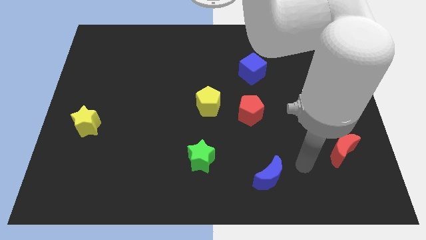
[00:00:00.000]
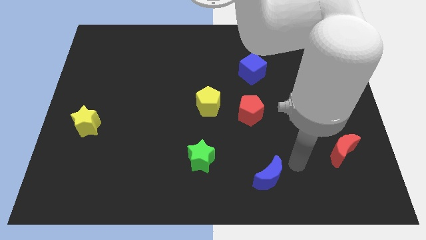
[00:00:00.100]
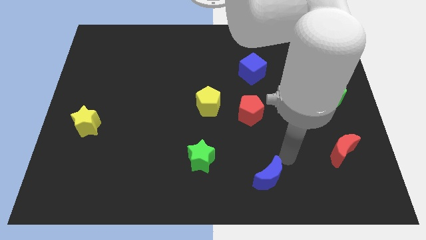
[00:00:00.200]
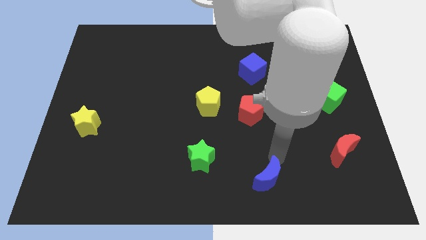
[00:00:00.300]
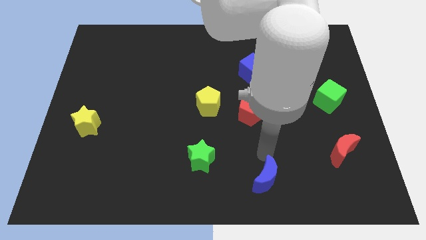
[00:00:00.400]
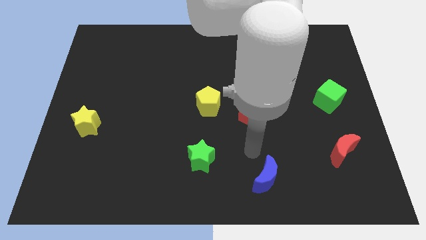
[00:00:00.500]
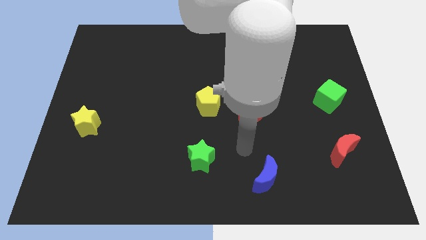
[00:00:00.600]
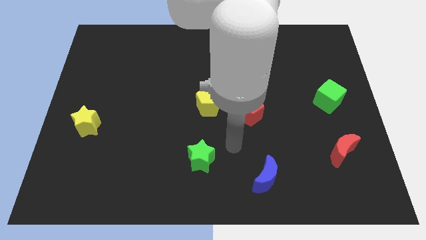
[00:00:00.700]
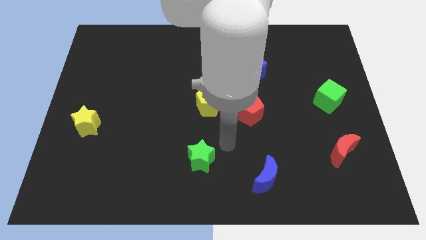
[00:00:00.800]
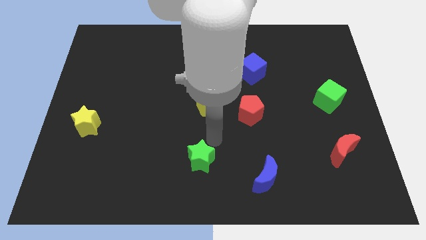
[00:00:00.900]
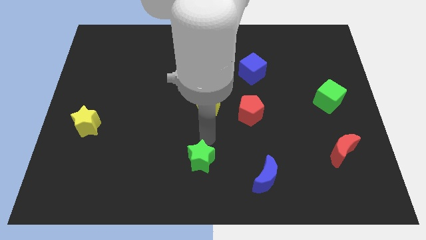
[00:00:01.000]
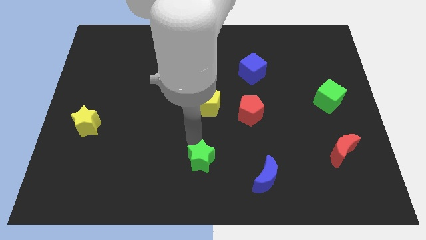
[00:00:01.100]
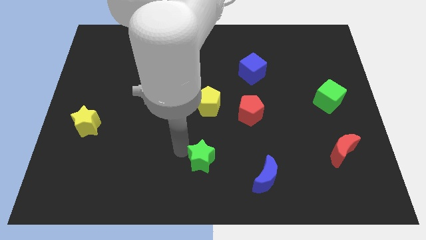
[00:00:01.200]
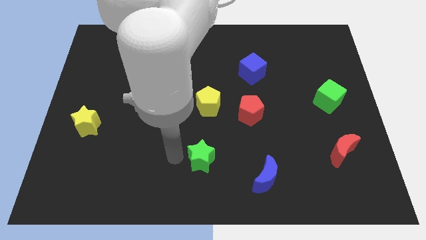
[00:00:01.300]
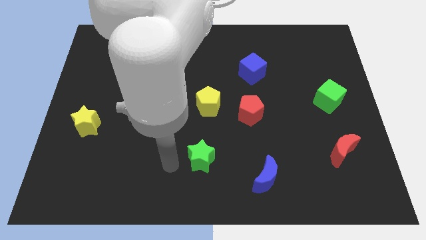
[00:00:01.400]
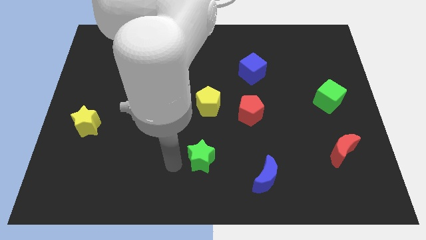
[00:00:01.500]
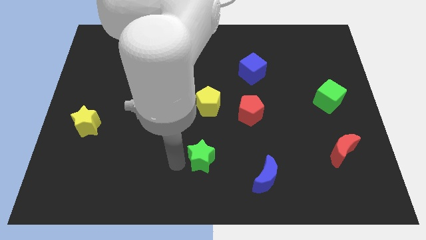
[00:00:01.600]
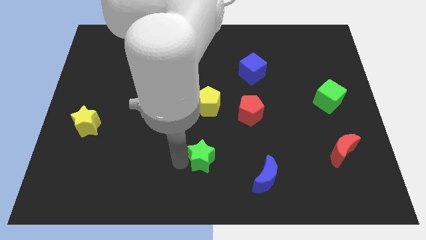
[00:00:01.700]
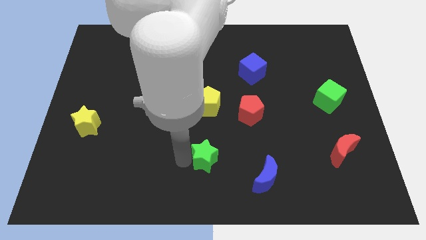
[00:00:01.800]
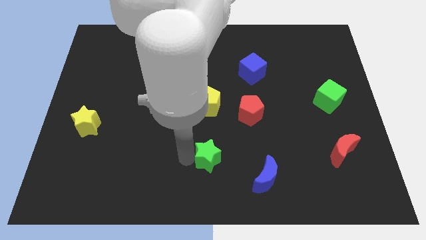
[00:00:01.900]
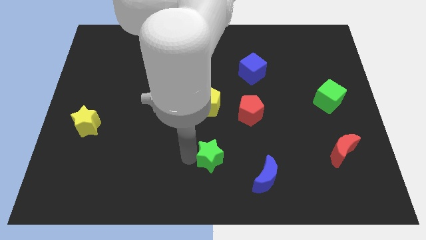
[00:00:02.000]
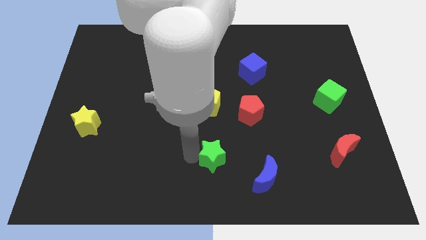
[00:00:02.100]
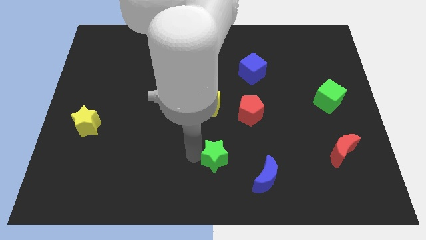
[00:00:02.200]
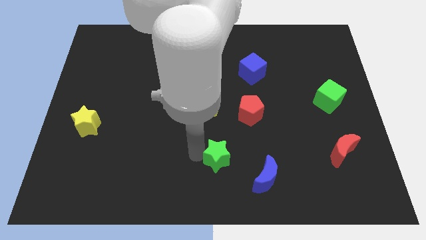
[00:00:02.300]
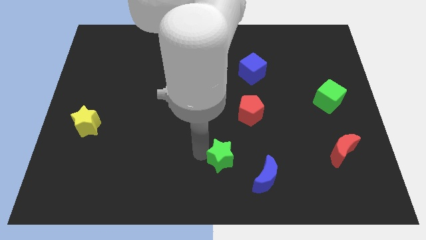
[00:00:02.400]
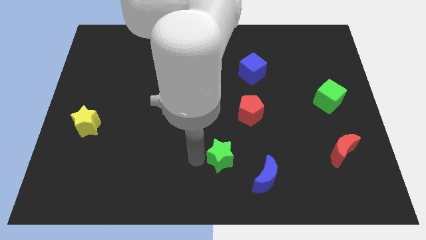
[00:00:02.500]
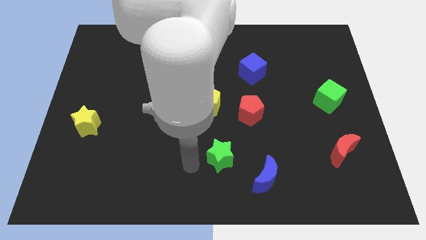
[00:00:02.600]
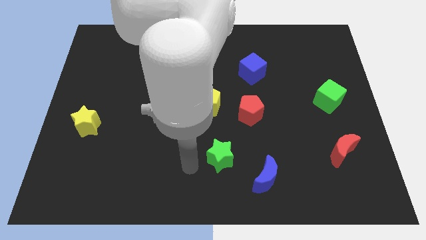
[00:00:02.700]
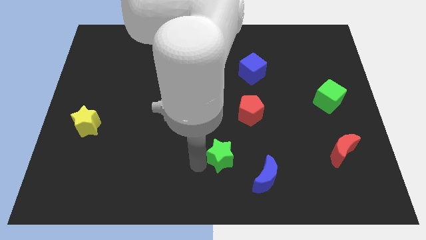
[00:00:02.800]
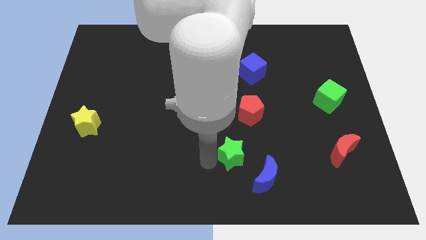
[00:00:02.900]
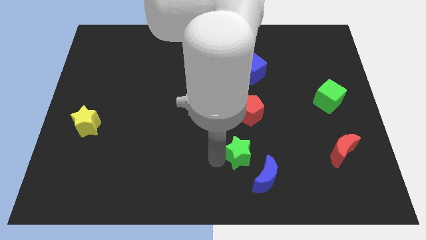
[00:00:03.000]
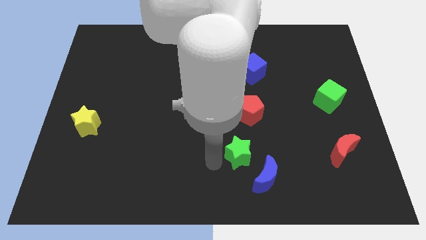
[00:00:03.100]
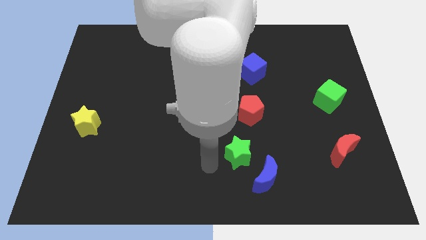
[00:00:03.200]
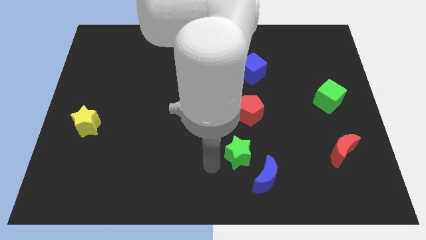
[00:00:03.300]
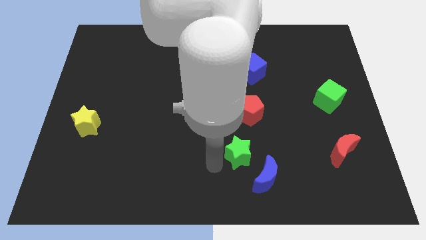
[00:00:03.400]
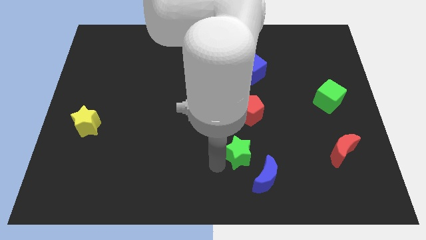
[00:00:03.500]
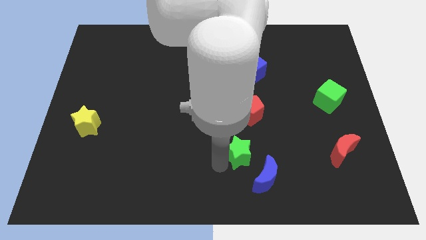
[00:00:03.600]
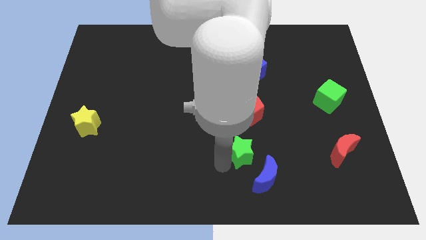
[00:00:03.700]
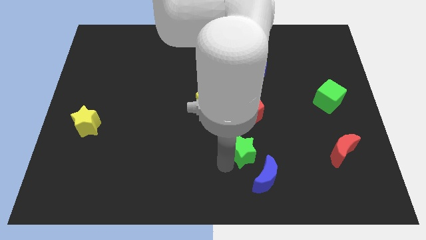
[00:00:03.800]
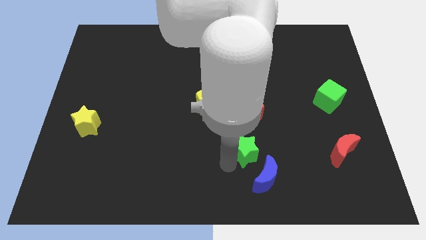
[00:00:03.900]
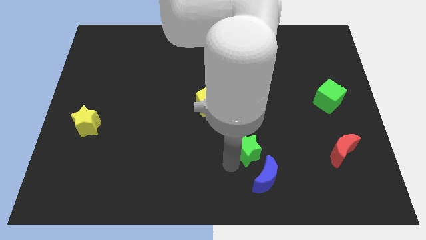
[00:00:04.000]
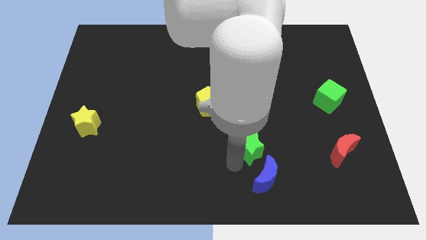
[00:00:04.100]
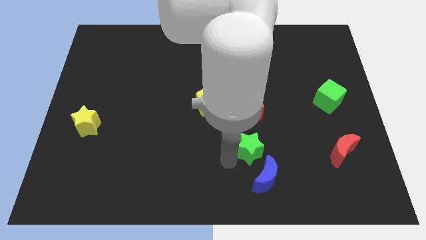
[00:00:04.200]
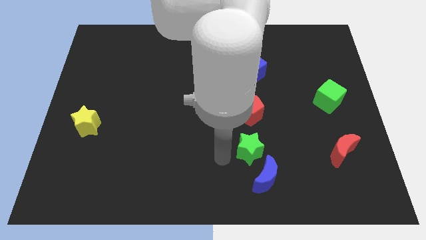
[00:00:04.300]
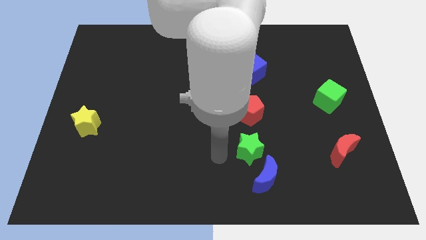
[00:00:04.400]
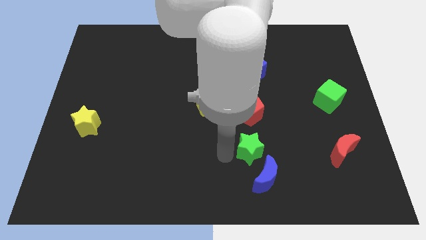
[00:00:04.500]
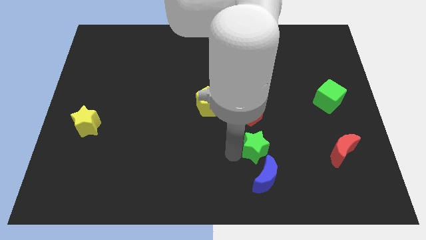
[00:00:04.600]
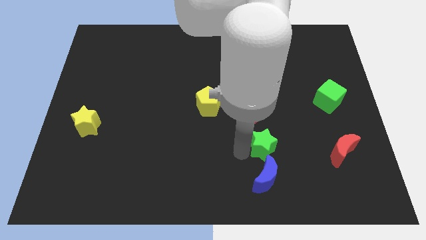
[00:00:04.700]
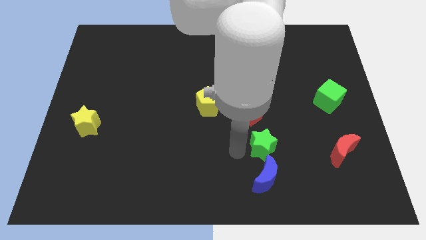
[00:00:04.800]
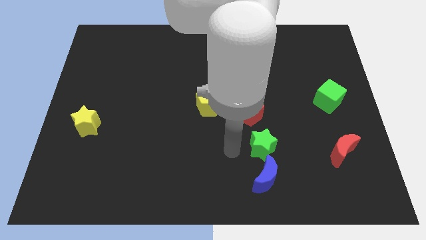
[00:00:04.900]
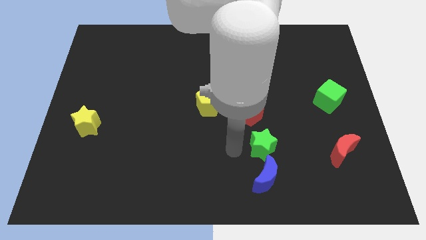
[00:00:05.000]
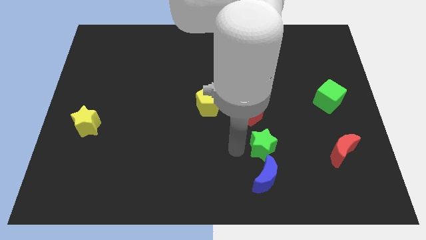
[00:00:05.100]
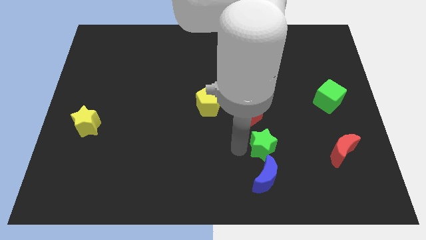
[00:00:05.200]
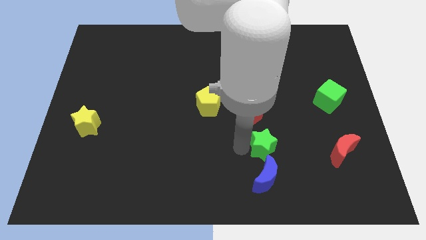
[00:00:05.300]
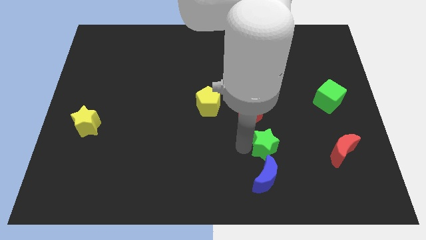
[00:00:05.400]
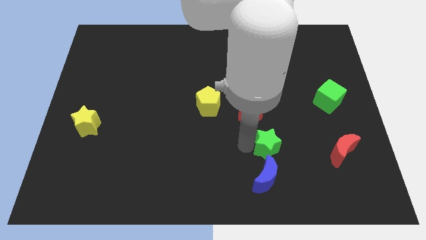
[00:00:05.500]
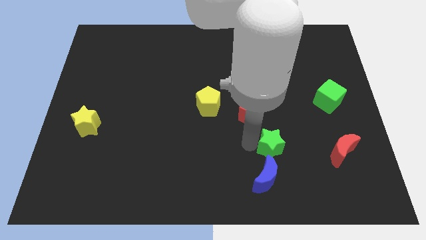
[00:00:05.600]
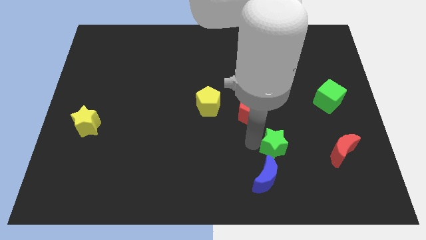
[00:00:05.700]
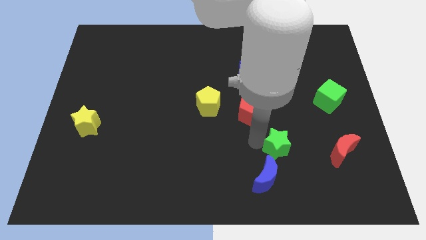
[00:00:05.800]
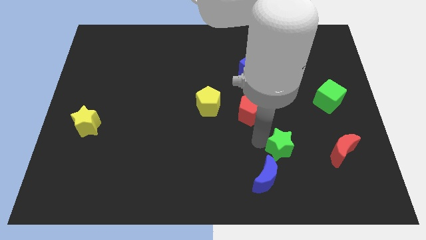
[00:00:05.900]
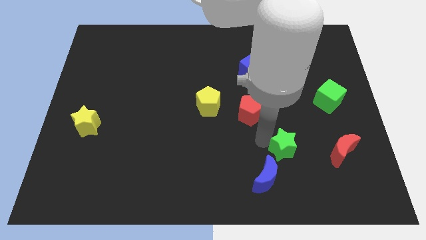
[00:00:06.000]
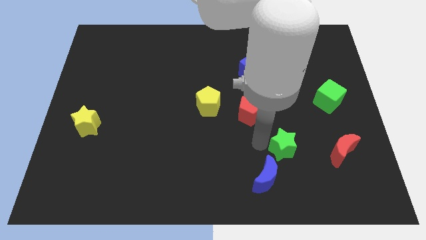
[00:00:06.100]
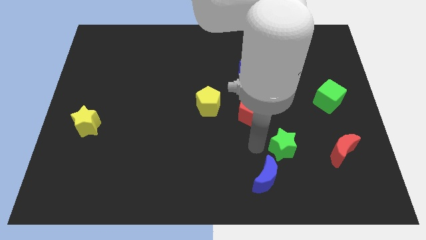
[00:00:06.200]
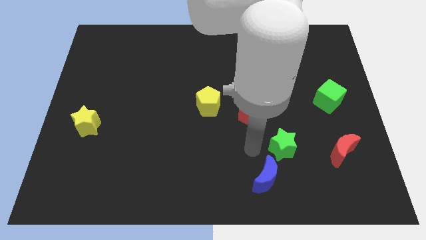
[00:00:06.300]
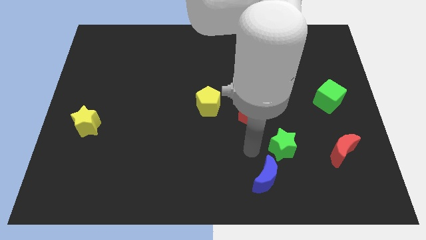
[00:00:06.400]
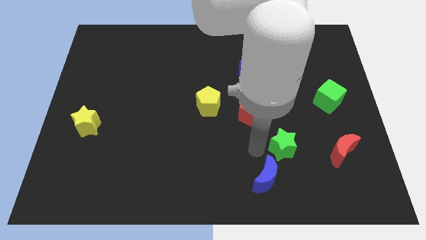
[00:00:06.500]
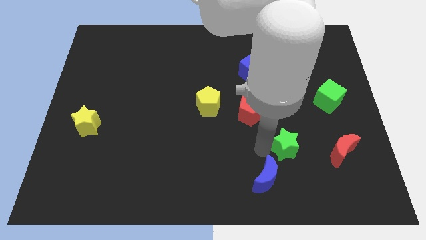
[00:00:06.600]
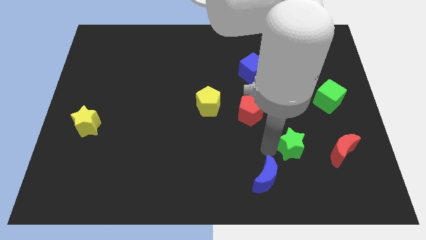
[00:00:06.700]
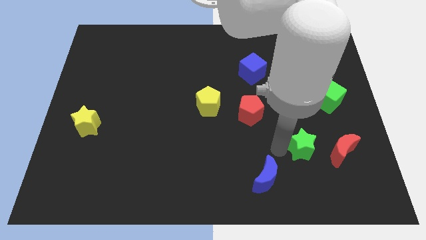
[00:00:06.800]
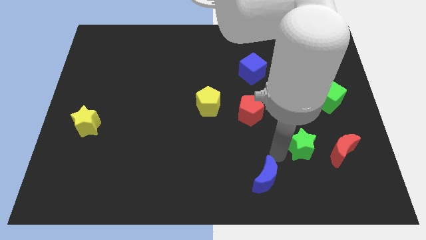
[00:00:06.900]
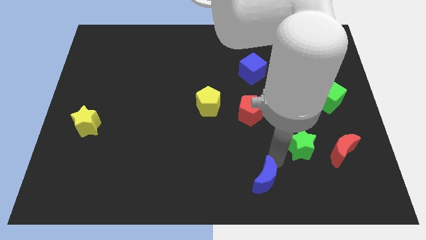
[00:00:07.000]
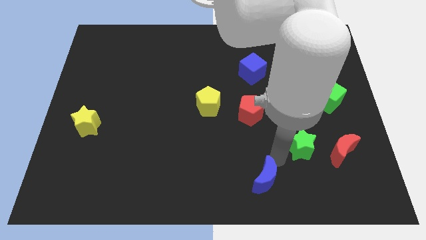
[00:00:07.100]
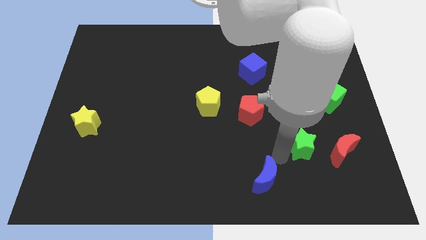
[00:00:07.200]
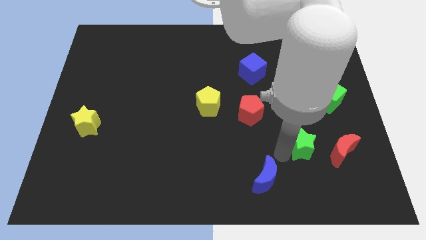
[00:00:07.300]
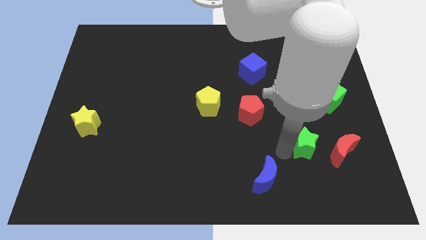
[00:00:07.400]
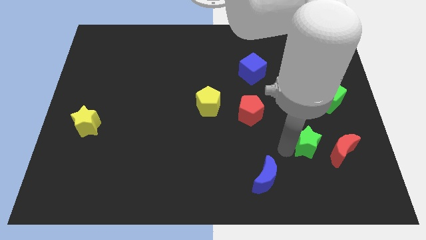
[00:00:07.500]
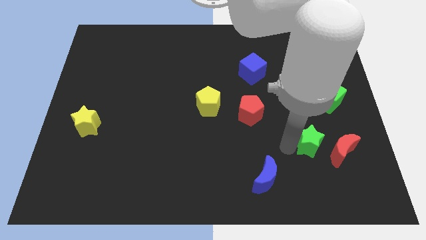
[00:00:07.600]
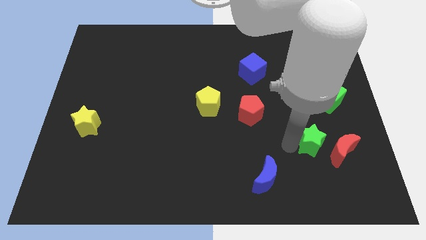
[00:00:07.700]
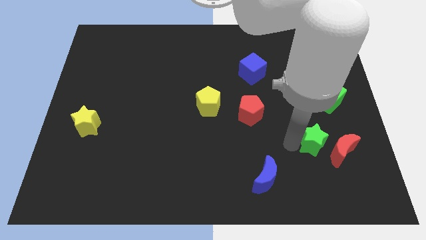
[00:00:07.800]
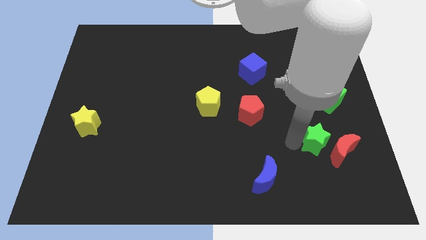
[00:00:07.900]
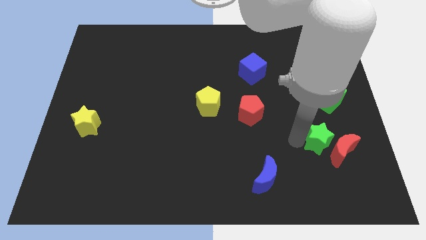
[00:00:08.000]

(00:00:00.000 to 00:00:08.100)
slide the green star to the bottom side of the green cube
